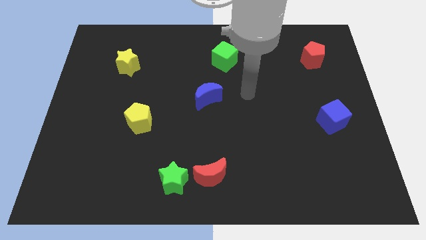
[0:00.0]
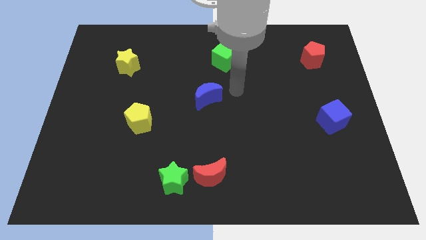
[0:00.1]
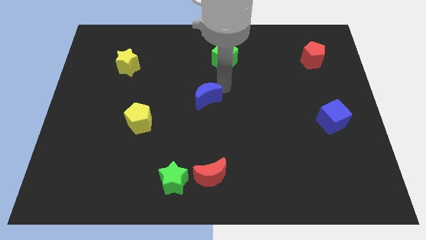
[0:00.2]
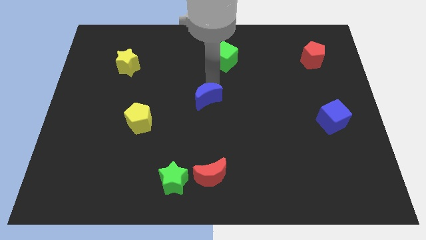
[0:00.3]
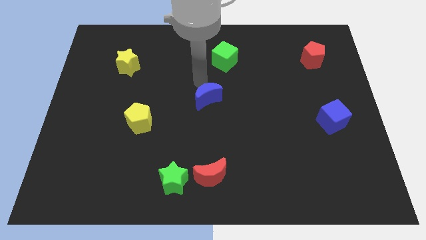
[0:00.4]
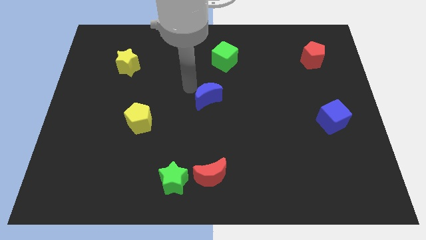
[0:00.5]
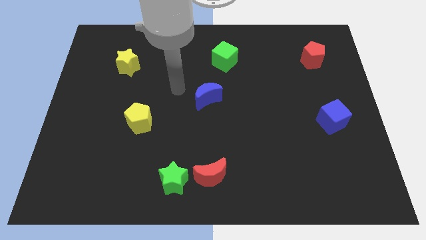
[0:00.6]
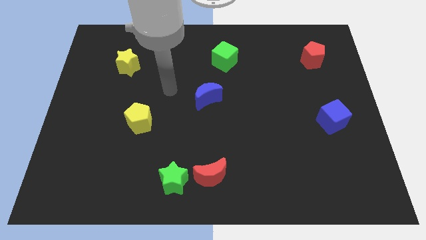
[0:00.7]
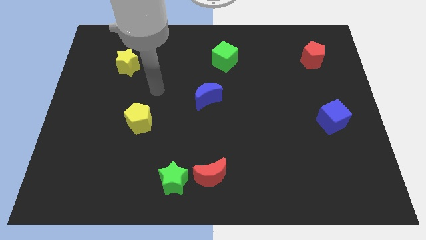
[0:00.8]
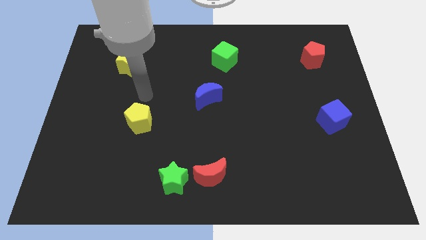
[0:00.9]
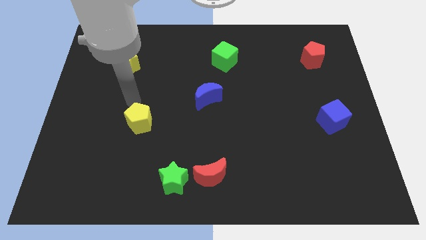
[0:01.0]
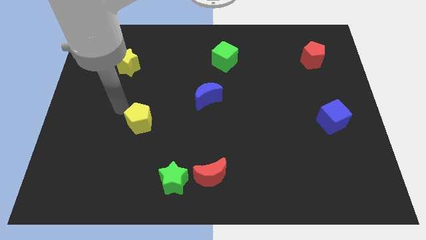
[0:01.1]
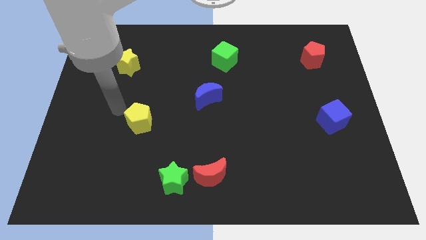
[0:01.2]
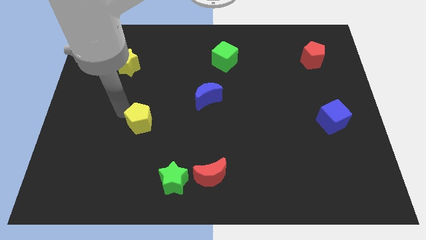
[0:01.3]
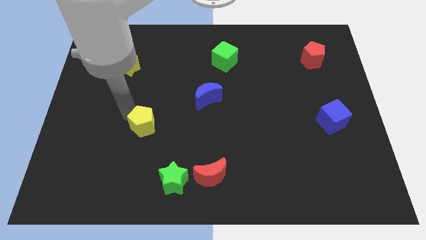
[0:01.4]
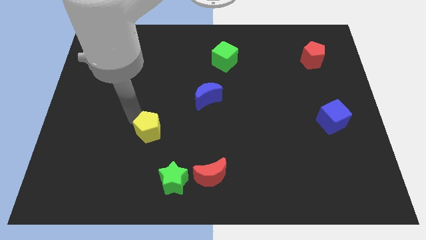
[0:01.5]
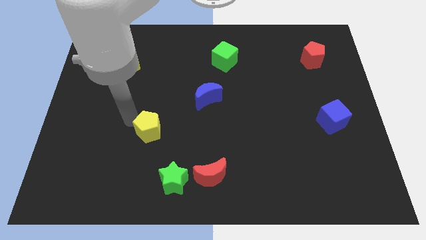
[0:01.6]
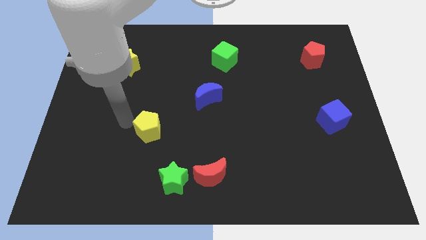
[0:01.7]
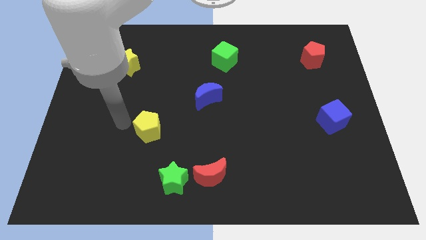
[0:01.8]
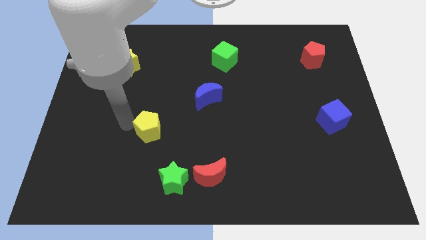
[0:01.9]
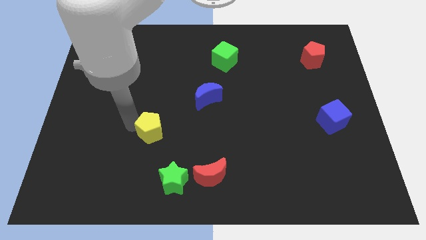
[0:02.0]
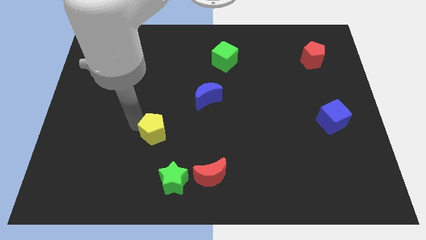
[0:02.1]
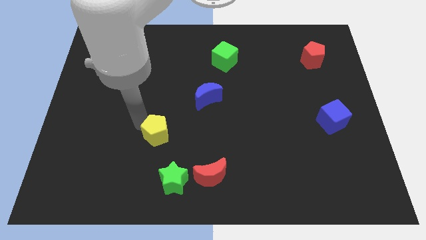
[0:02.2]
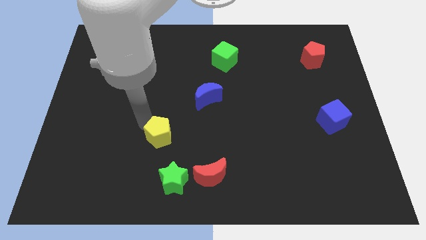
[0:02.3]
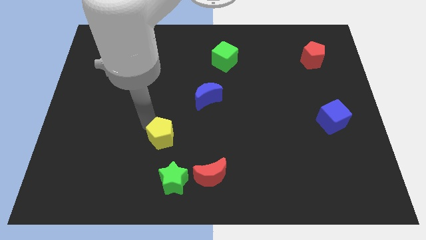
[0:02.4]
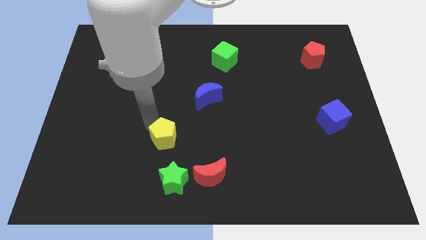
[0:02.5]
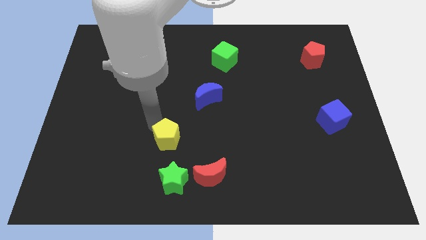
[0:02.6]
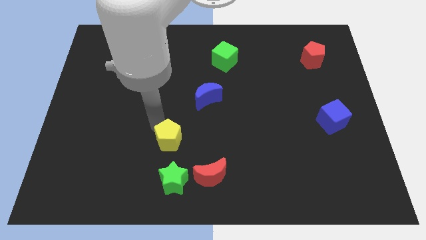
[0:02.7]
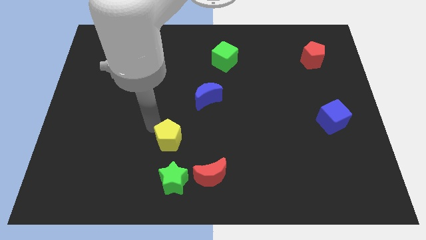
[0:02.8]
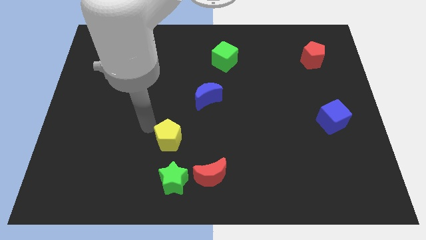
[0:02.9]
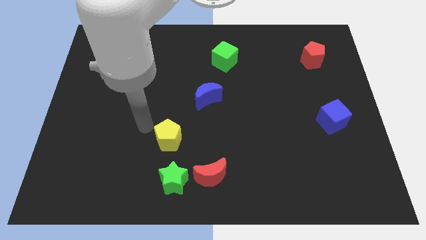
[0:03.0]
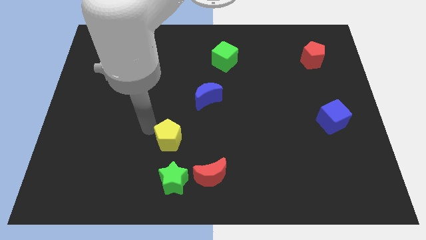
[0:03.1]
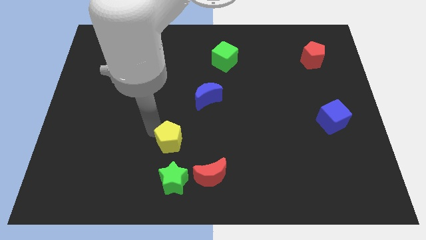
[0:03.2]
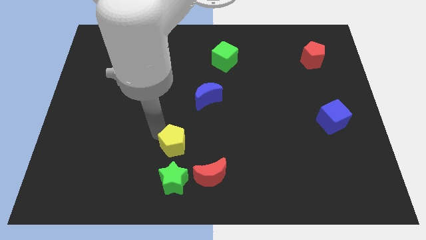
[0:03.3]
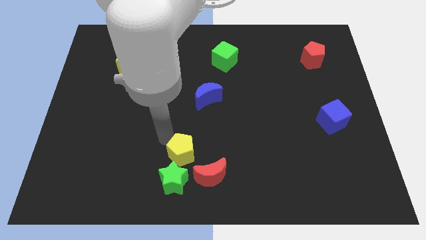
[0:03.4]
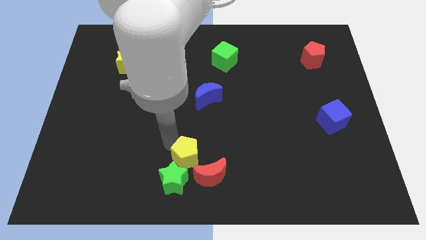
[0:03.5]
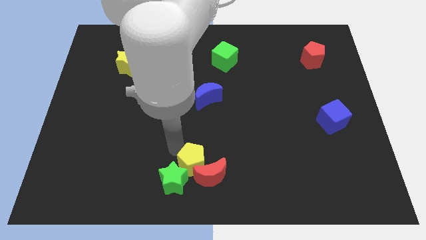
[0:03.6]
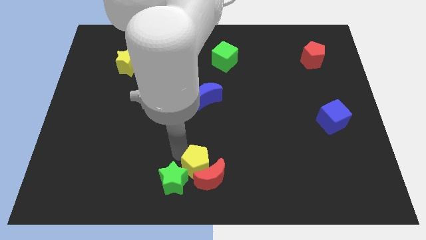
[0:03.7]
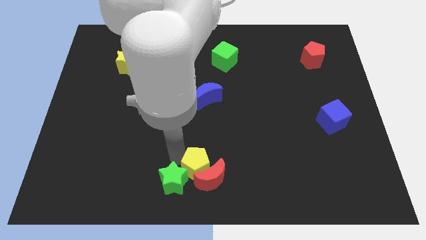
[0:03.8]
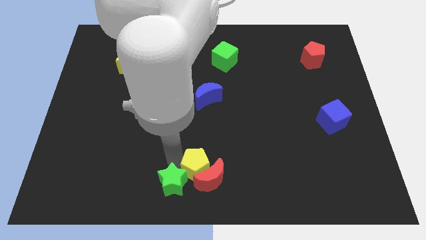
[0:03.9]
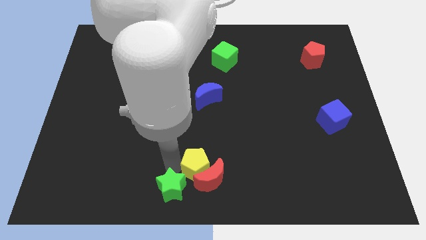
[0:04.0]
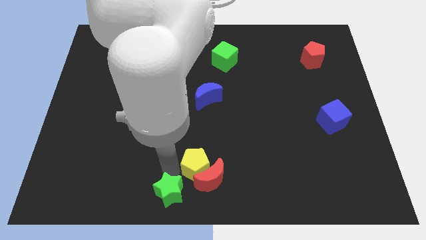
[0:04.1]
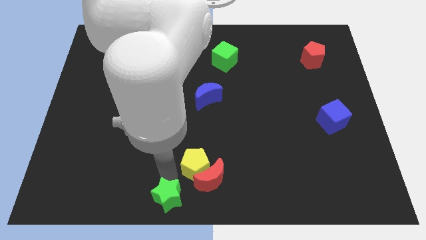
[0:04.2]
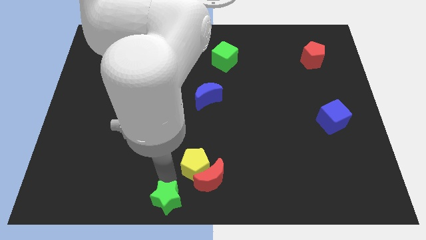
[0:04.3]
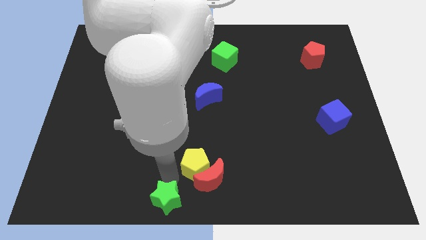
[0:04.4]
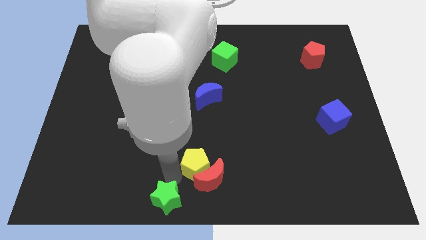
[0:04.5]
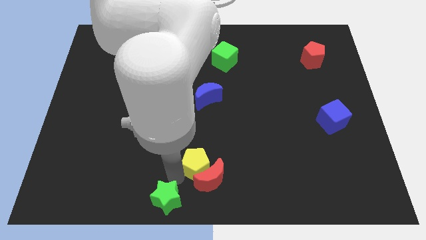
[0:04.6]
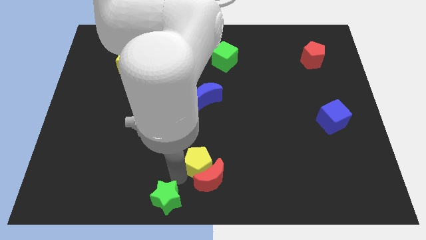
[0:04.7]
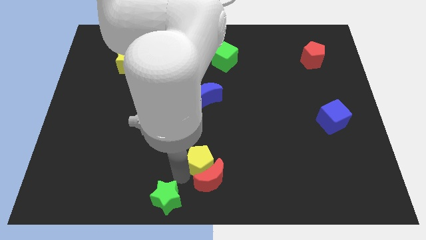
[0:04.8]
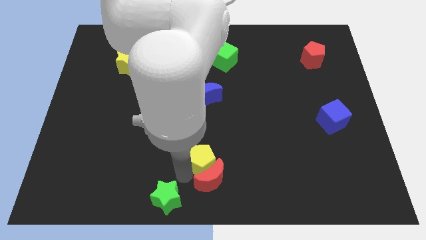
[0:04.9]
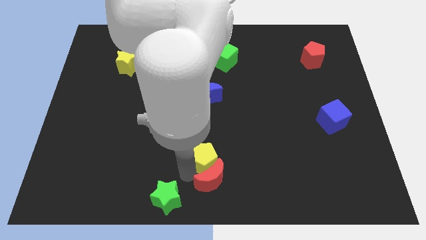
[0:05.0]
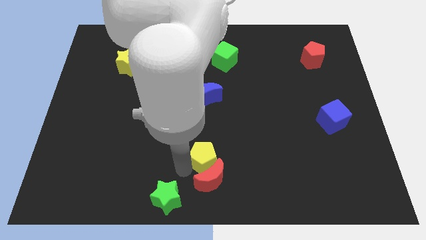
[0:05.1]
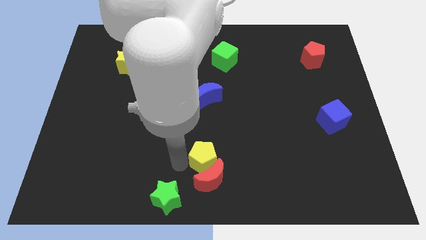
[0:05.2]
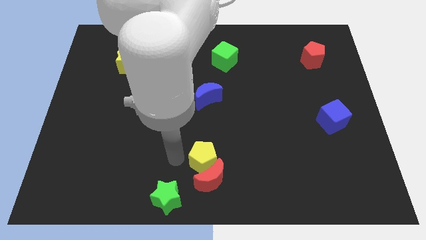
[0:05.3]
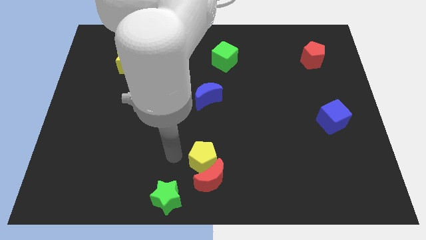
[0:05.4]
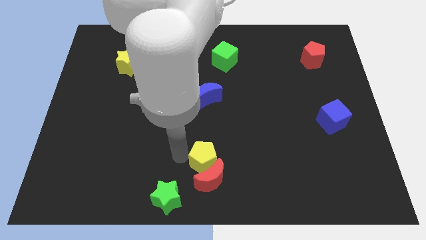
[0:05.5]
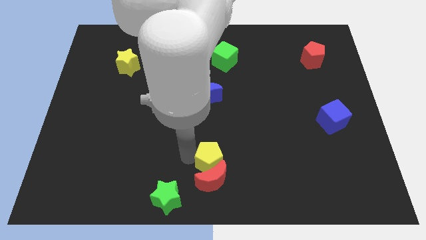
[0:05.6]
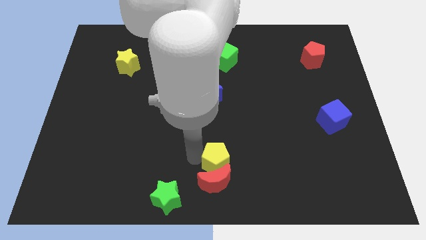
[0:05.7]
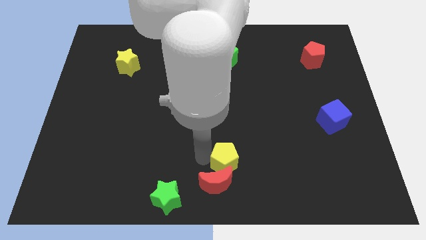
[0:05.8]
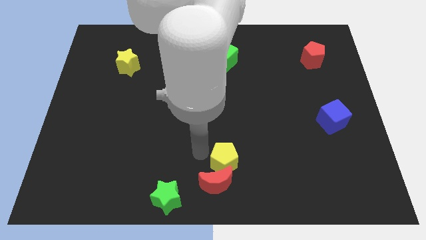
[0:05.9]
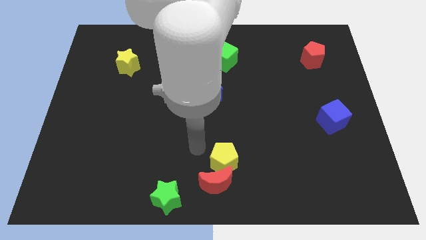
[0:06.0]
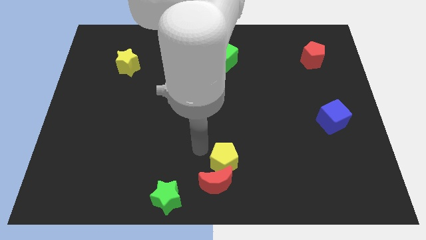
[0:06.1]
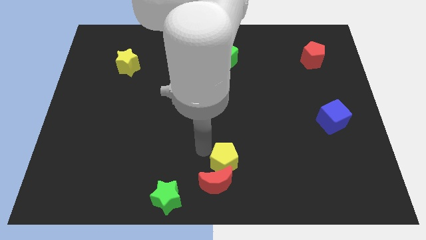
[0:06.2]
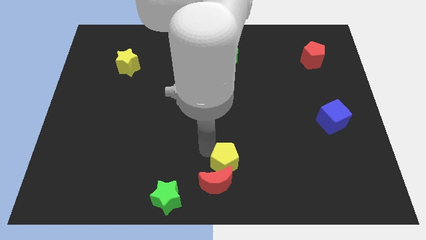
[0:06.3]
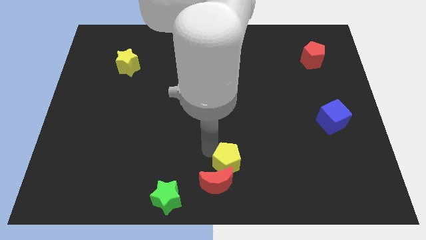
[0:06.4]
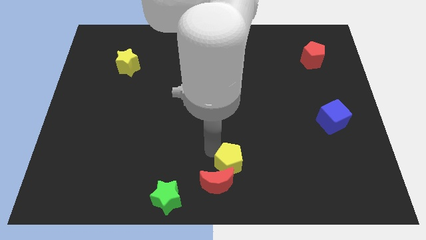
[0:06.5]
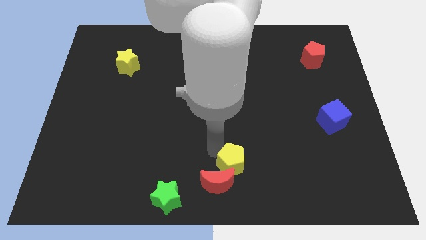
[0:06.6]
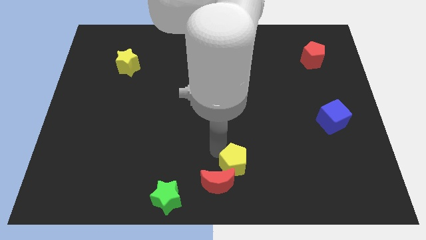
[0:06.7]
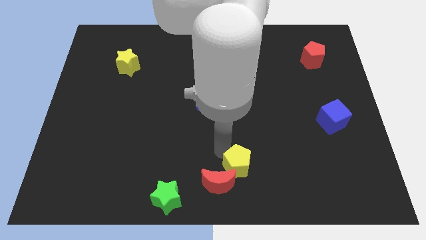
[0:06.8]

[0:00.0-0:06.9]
move the yellow pentagon to the right of the red moon

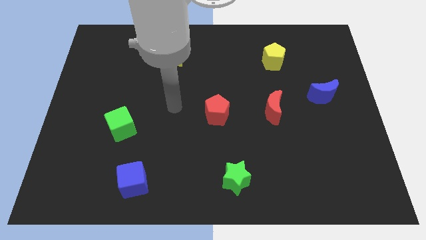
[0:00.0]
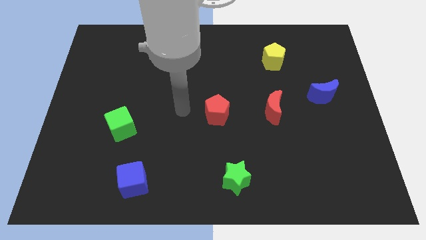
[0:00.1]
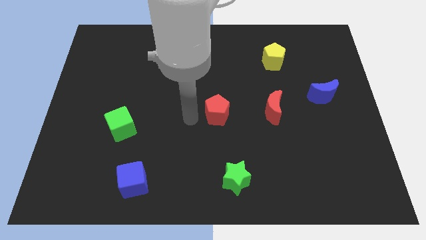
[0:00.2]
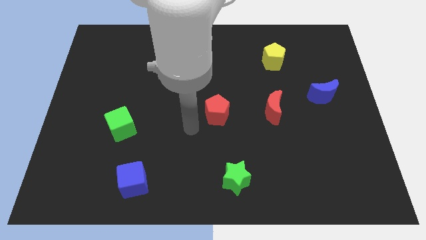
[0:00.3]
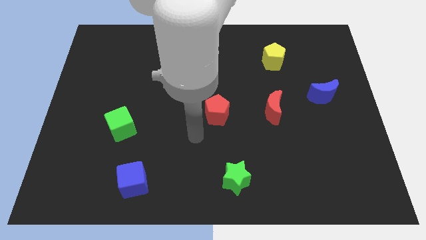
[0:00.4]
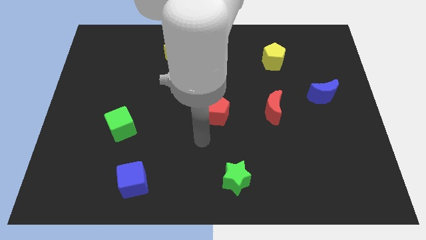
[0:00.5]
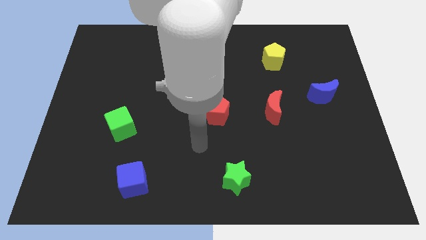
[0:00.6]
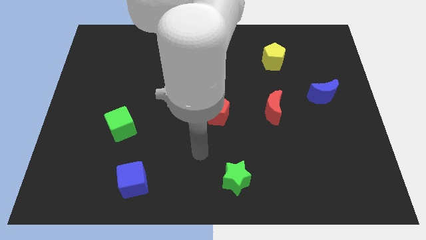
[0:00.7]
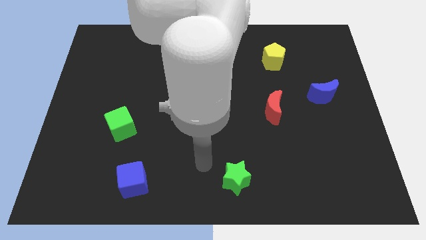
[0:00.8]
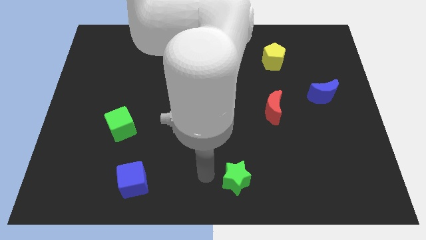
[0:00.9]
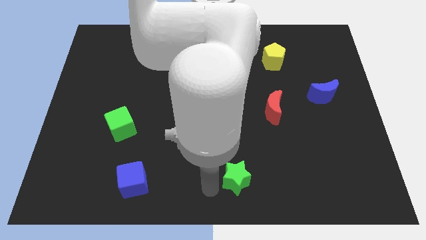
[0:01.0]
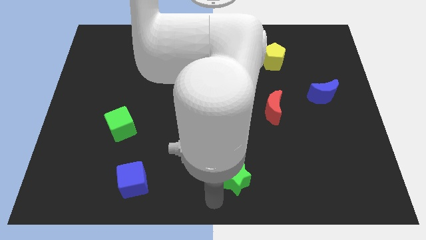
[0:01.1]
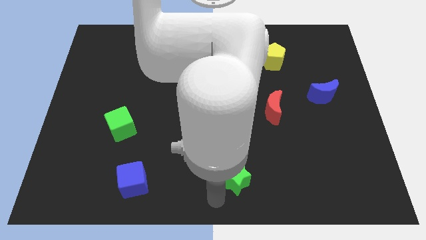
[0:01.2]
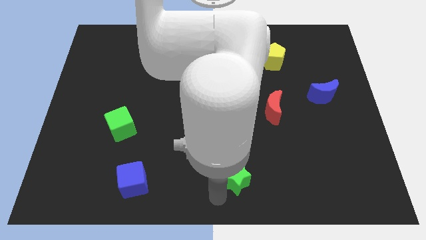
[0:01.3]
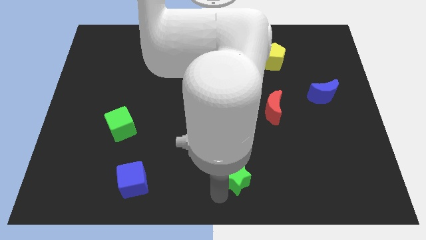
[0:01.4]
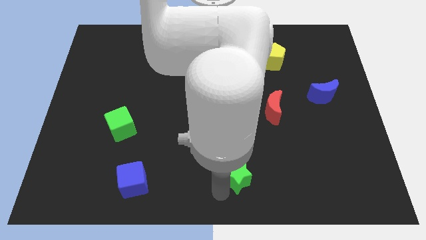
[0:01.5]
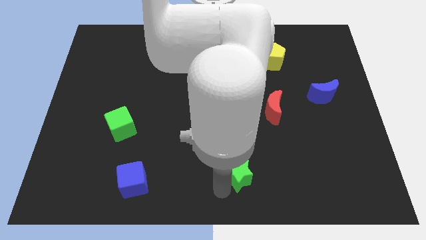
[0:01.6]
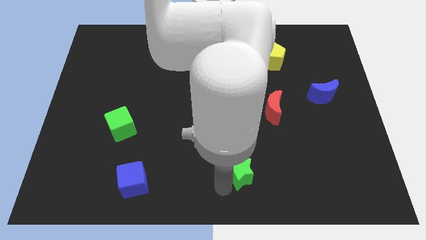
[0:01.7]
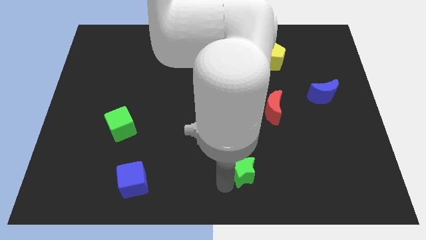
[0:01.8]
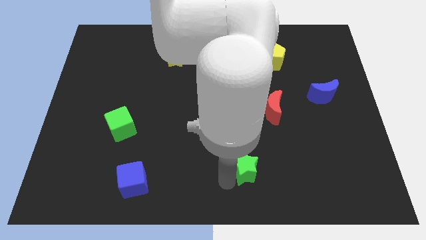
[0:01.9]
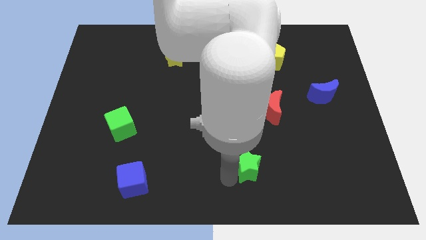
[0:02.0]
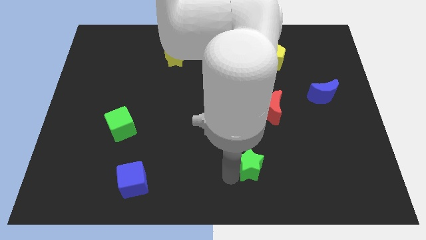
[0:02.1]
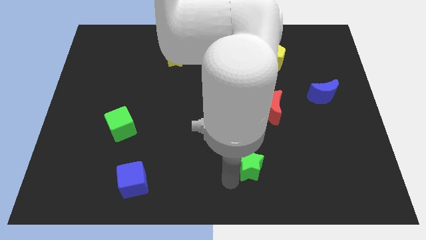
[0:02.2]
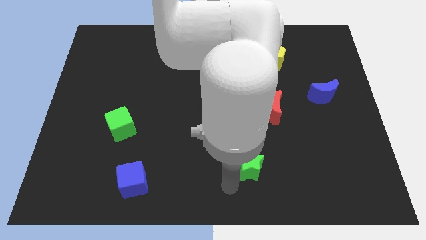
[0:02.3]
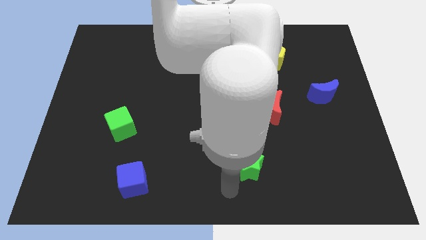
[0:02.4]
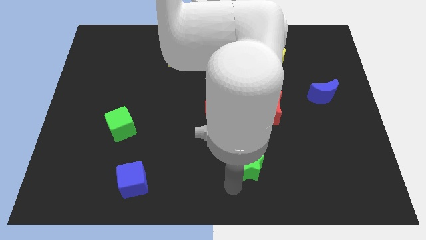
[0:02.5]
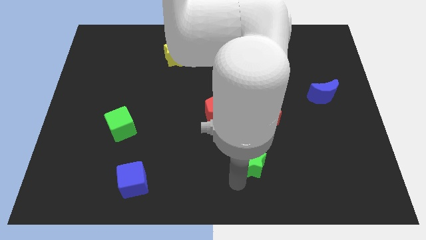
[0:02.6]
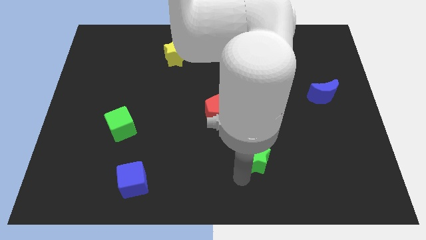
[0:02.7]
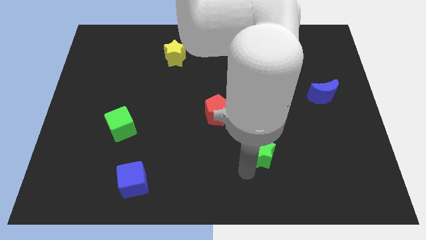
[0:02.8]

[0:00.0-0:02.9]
slide the green star to the bottom of the red moon
